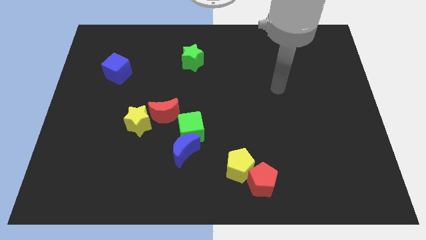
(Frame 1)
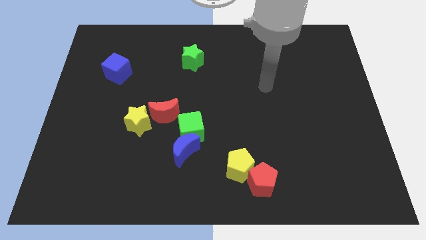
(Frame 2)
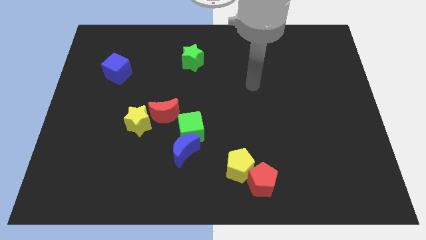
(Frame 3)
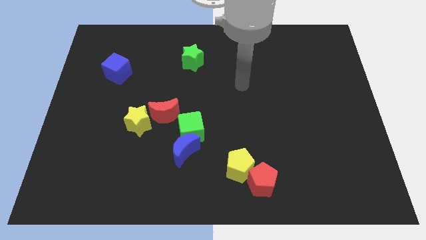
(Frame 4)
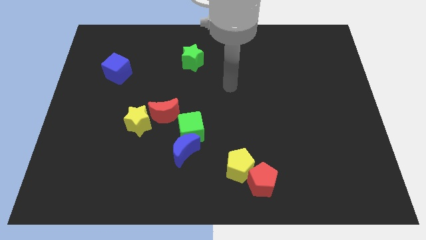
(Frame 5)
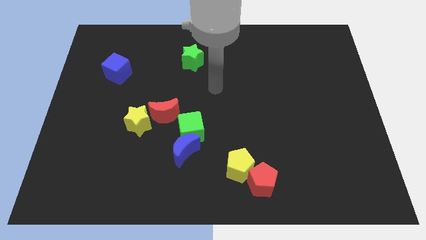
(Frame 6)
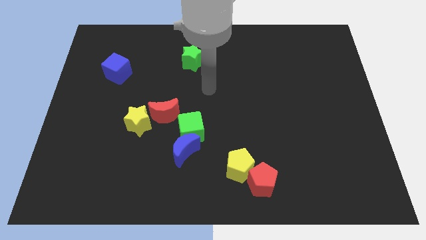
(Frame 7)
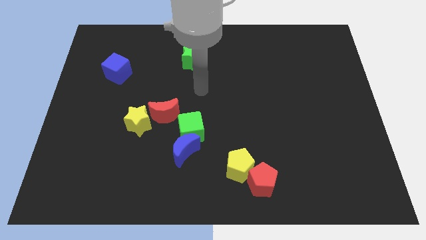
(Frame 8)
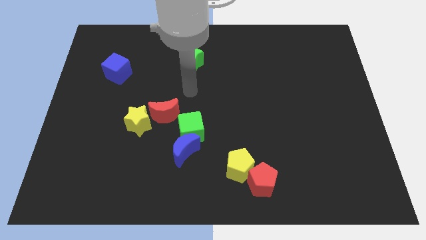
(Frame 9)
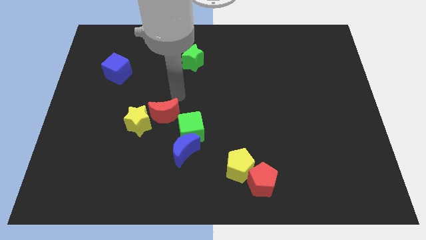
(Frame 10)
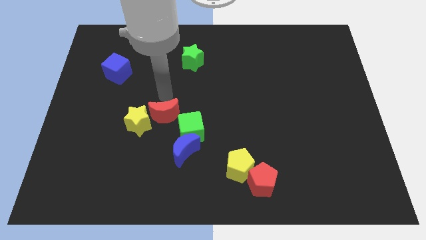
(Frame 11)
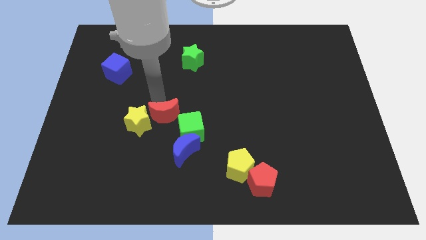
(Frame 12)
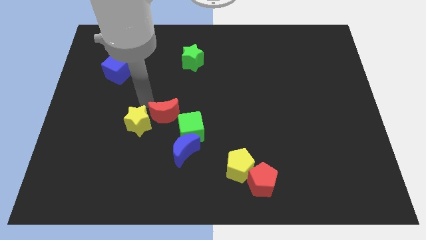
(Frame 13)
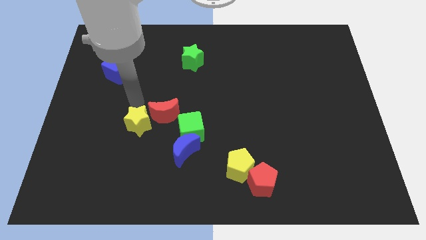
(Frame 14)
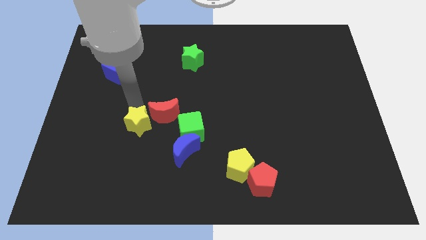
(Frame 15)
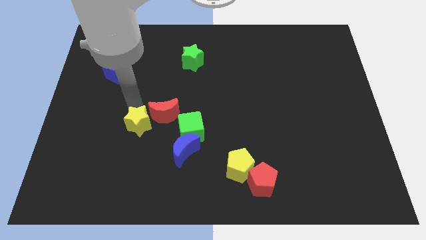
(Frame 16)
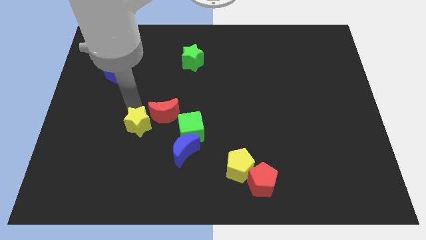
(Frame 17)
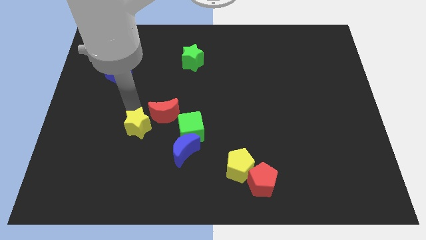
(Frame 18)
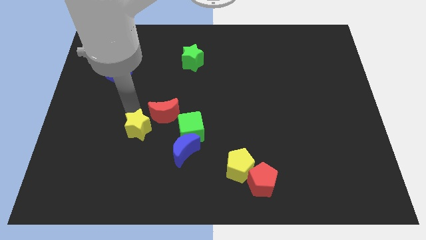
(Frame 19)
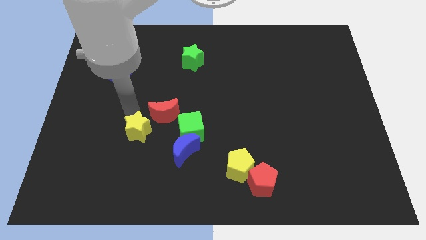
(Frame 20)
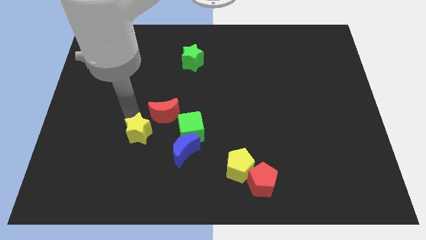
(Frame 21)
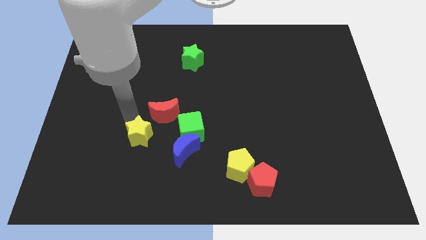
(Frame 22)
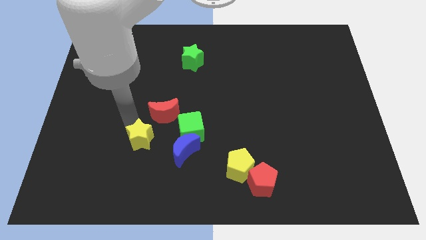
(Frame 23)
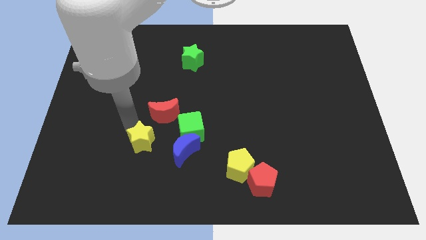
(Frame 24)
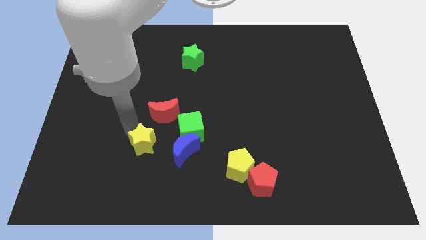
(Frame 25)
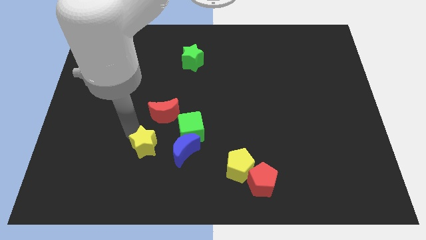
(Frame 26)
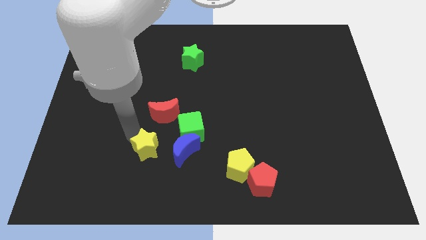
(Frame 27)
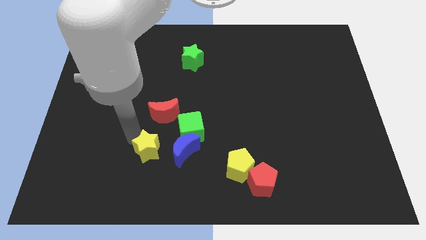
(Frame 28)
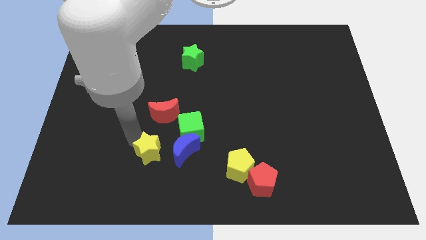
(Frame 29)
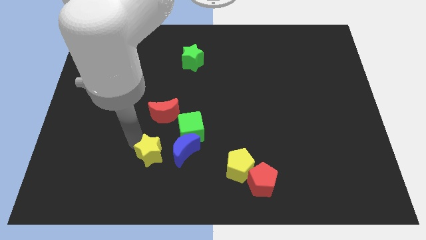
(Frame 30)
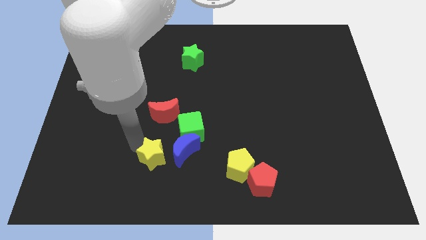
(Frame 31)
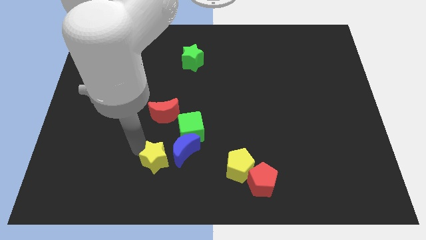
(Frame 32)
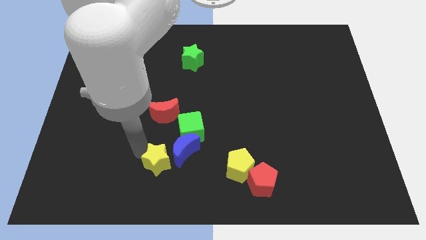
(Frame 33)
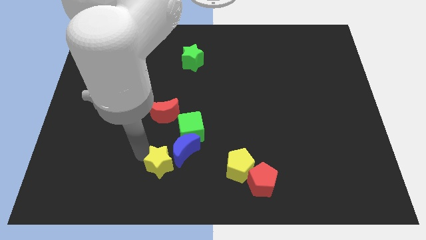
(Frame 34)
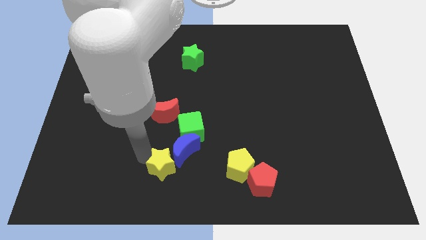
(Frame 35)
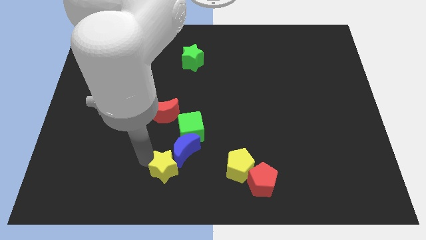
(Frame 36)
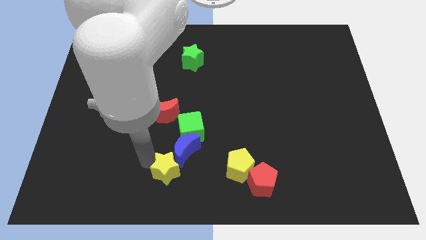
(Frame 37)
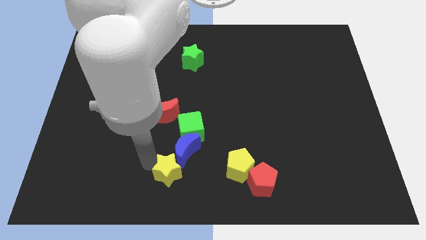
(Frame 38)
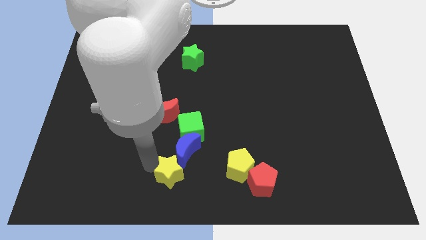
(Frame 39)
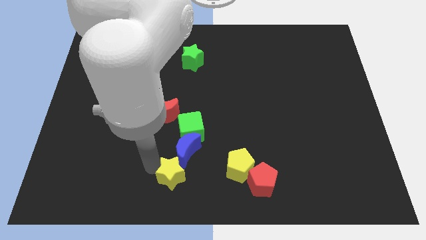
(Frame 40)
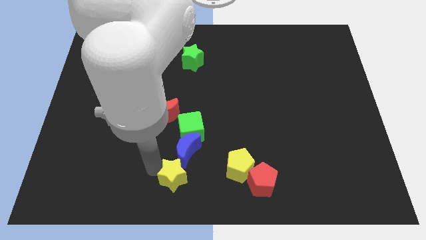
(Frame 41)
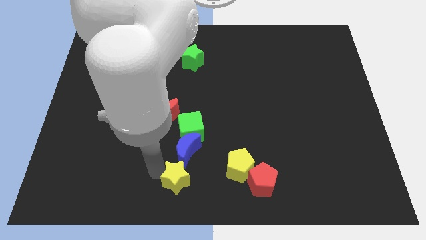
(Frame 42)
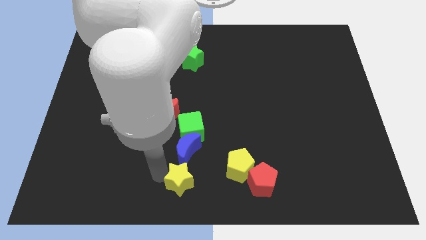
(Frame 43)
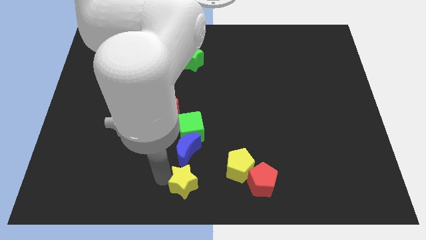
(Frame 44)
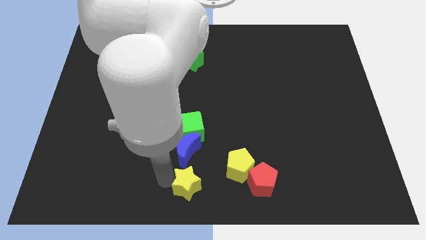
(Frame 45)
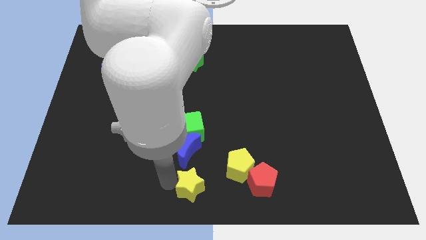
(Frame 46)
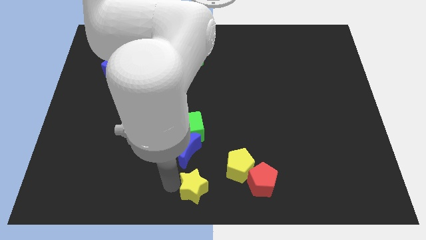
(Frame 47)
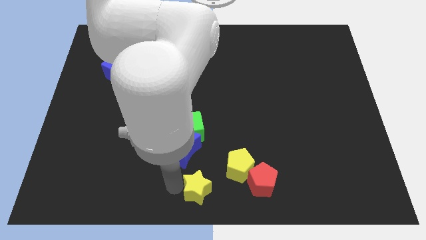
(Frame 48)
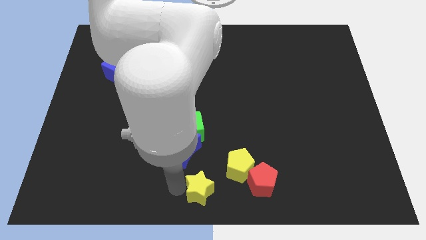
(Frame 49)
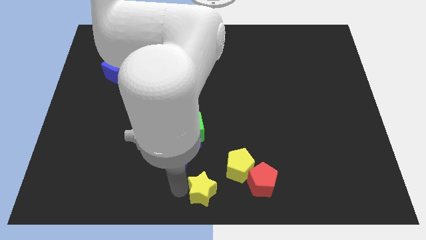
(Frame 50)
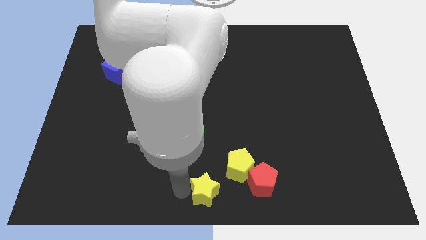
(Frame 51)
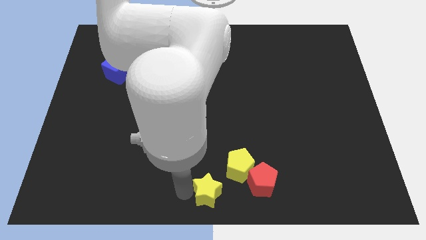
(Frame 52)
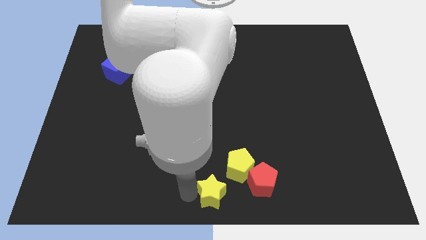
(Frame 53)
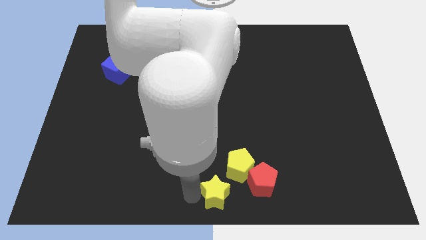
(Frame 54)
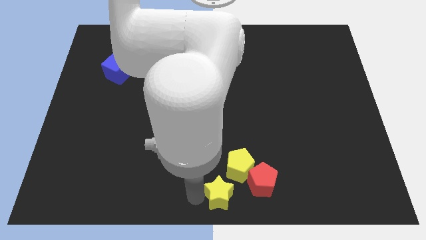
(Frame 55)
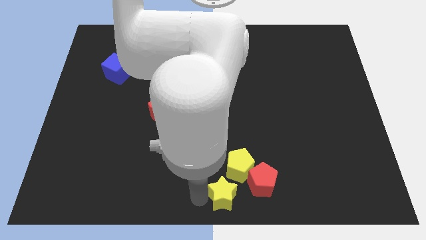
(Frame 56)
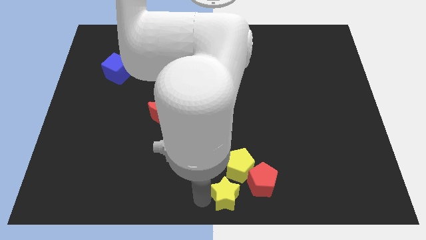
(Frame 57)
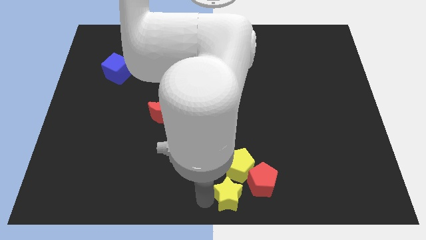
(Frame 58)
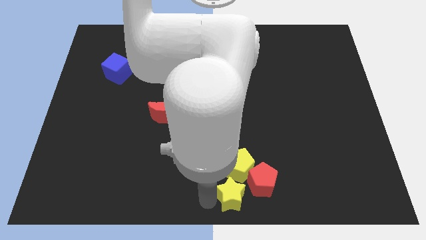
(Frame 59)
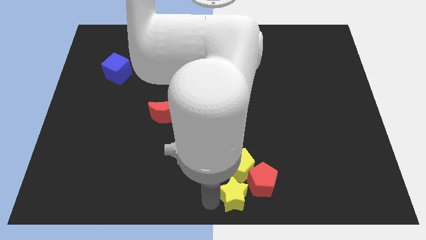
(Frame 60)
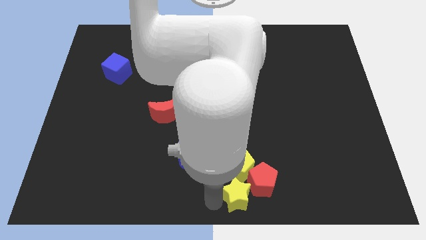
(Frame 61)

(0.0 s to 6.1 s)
slide the yellow star towards the red pentagon

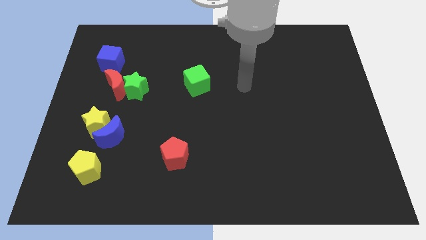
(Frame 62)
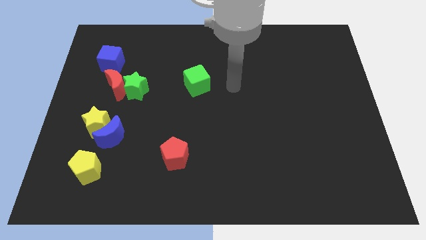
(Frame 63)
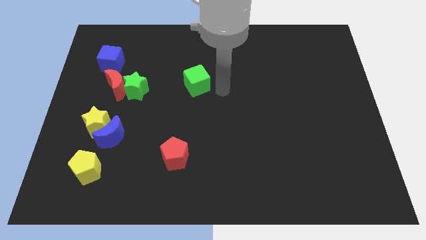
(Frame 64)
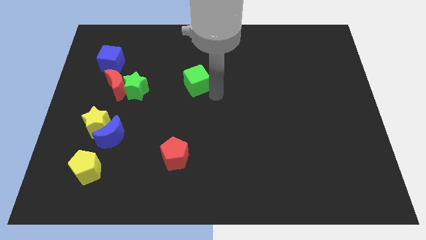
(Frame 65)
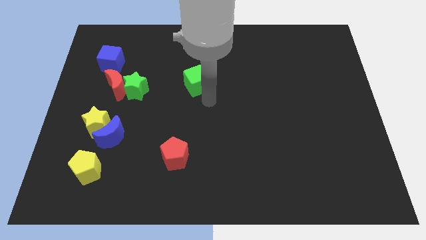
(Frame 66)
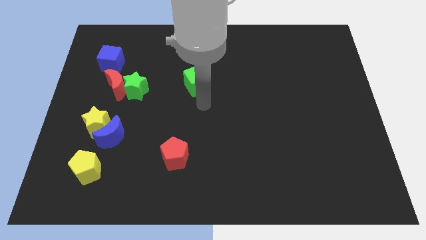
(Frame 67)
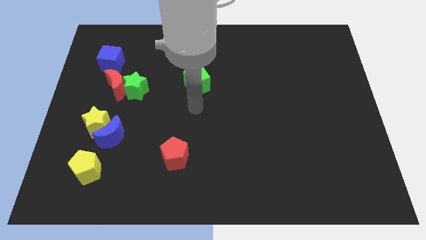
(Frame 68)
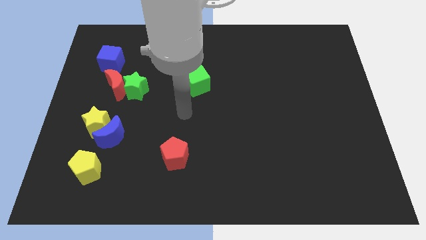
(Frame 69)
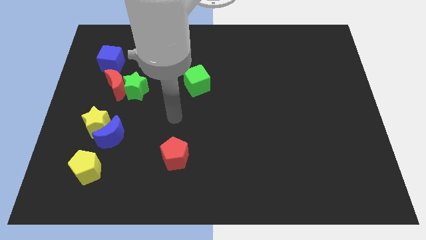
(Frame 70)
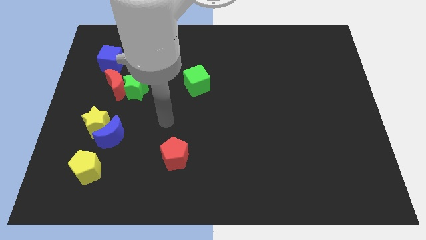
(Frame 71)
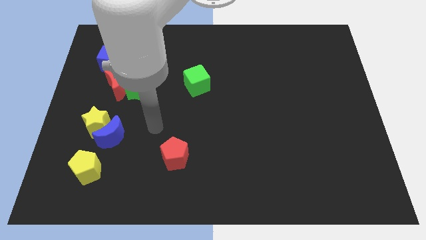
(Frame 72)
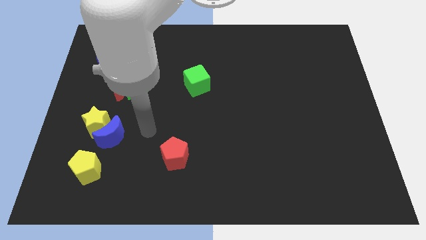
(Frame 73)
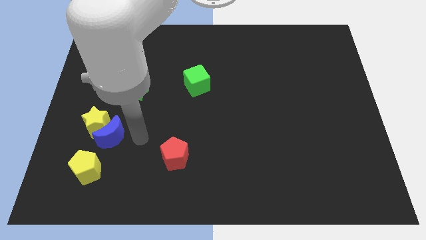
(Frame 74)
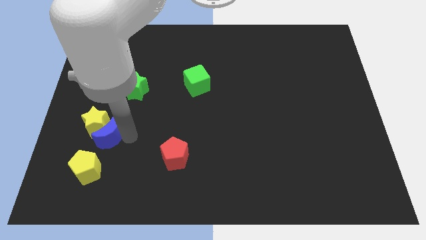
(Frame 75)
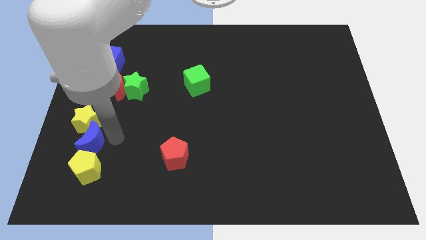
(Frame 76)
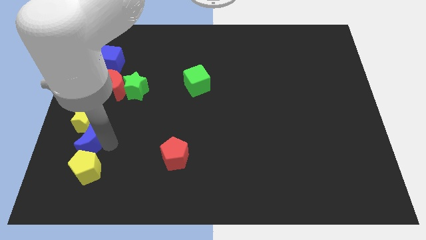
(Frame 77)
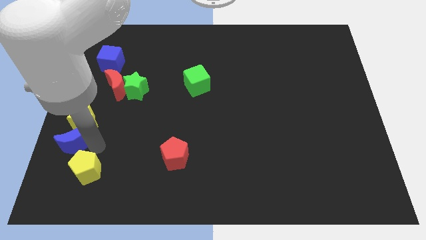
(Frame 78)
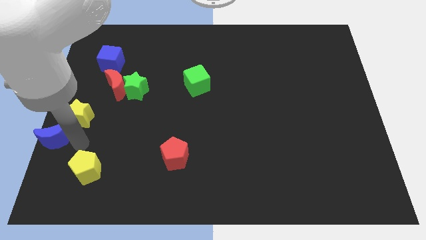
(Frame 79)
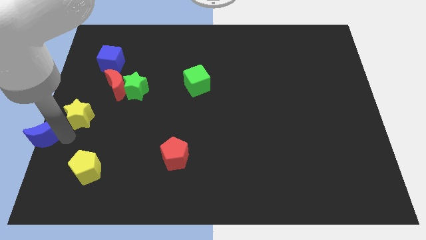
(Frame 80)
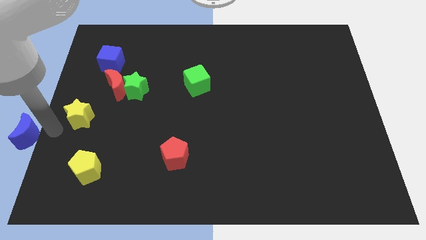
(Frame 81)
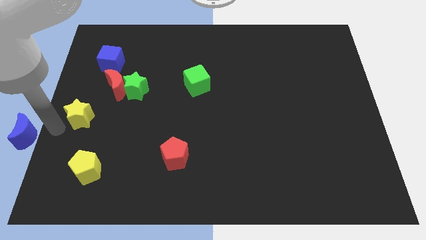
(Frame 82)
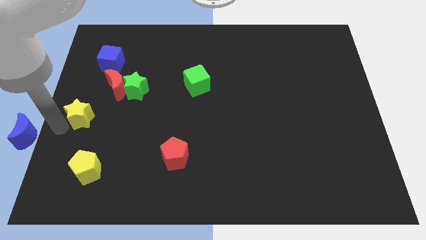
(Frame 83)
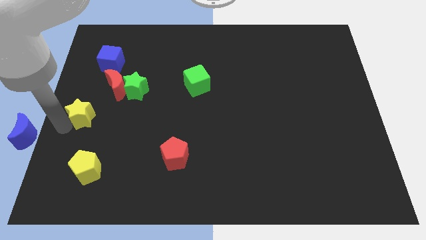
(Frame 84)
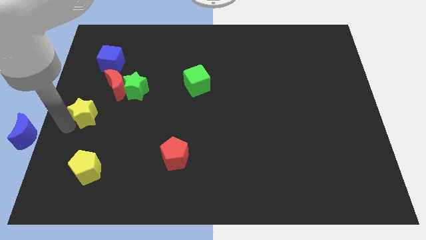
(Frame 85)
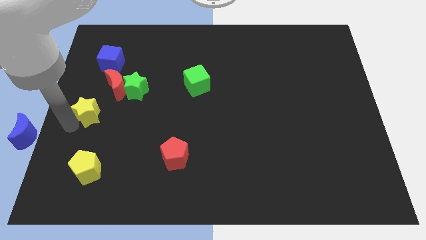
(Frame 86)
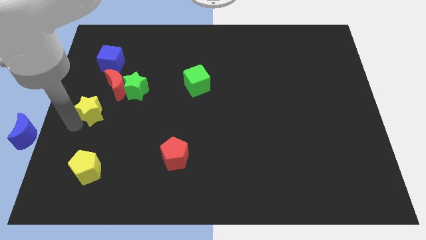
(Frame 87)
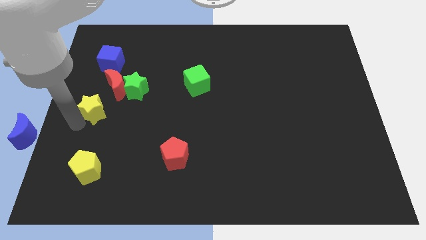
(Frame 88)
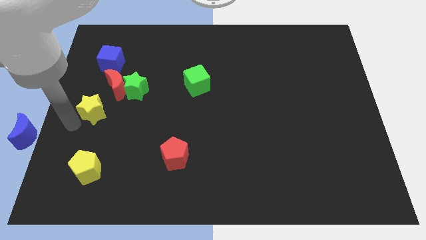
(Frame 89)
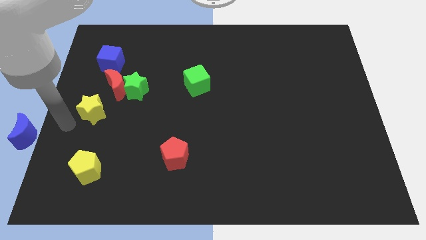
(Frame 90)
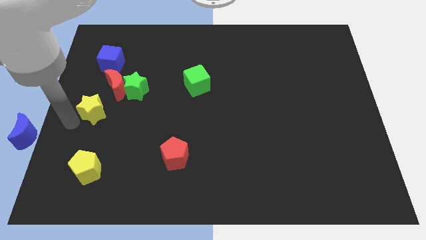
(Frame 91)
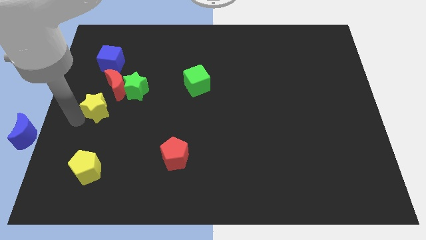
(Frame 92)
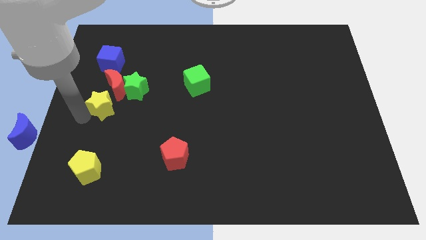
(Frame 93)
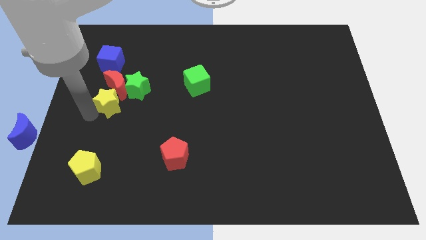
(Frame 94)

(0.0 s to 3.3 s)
put the yellow star to the red moon
